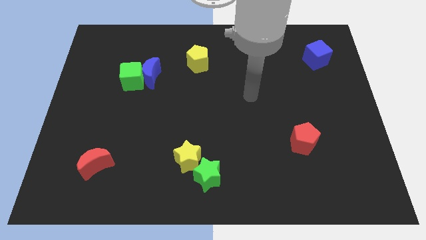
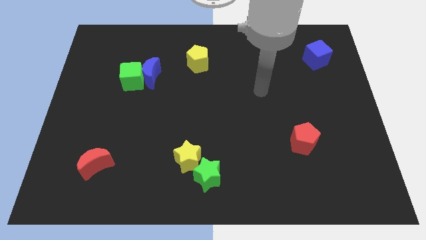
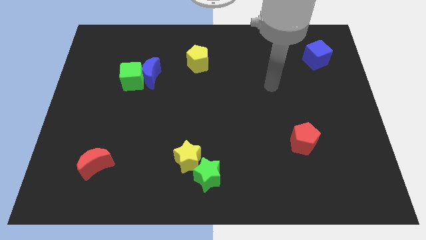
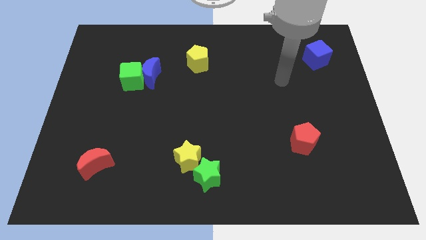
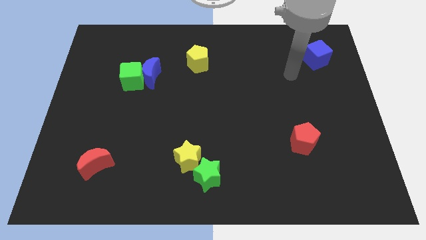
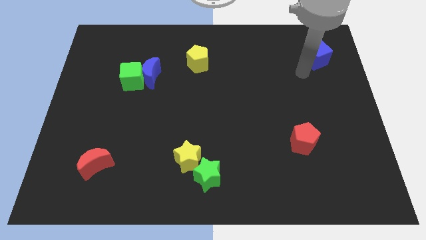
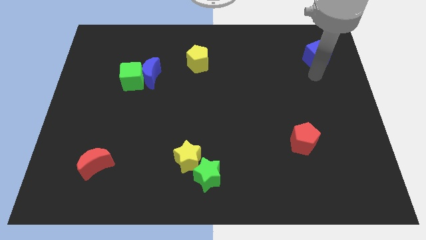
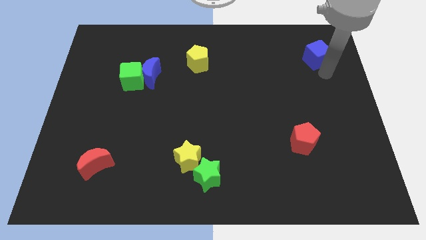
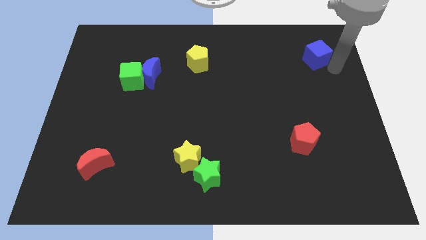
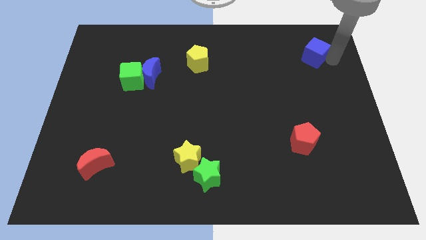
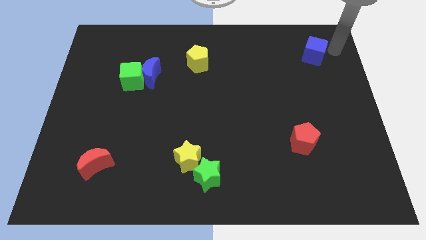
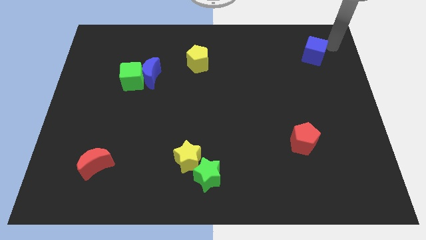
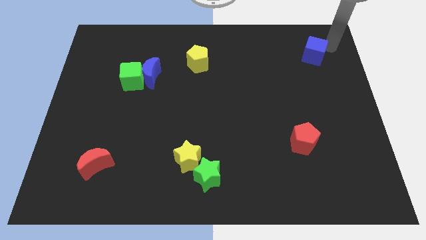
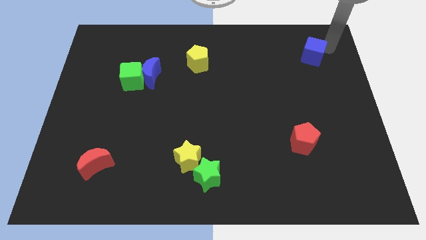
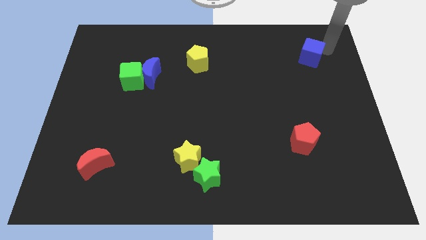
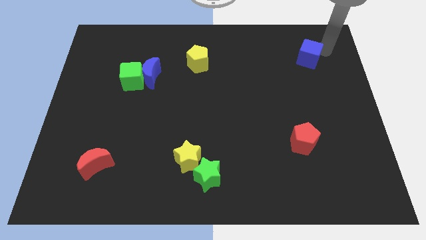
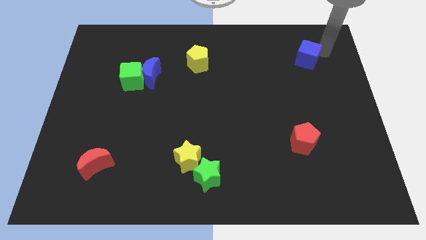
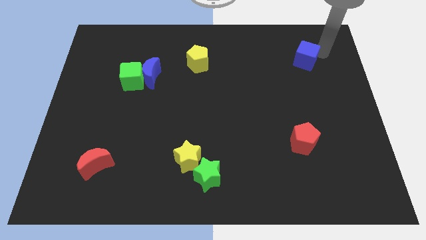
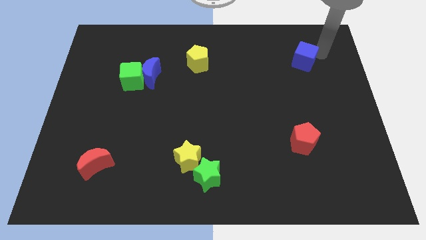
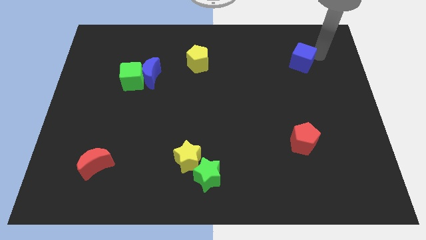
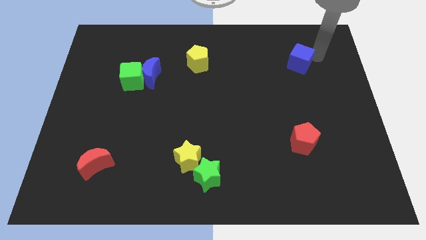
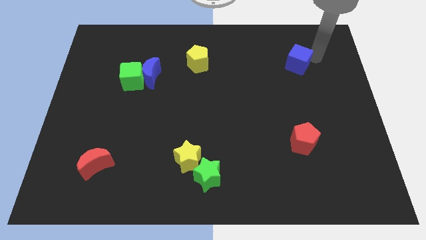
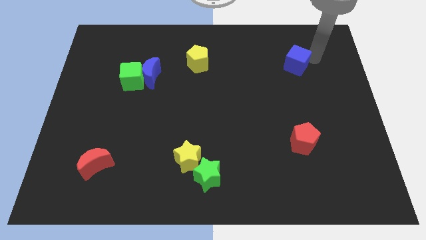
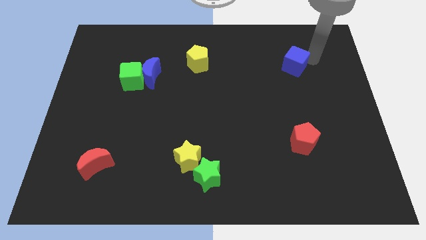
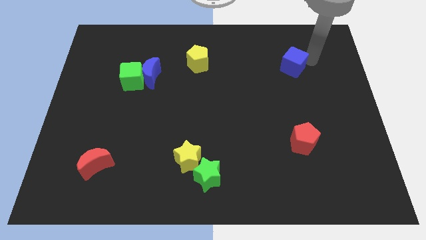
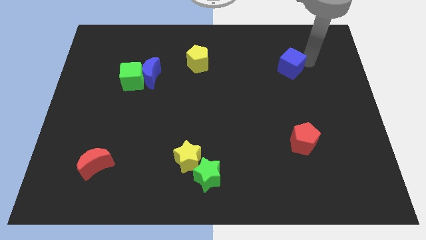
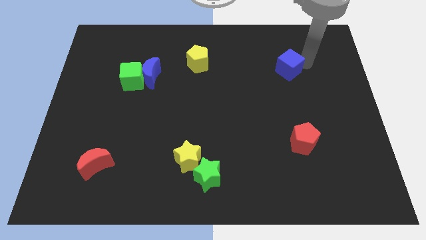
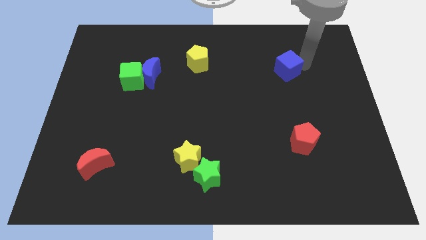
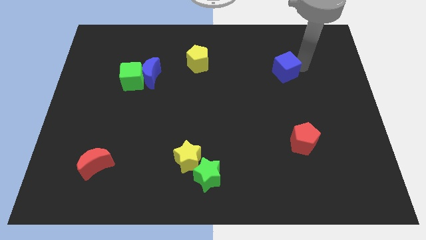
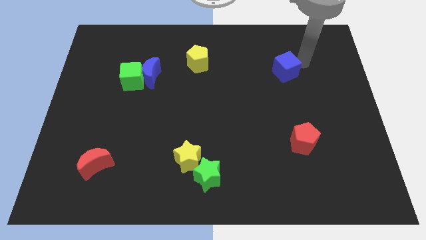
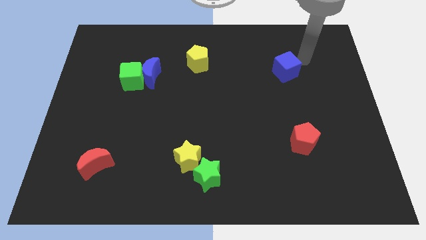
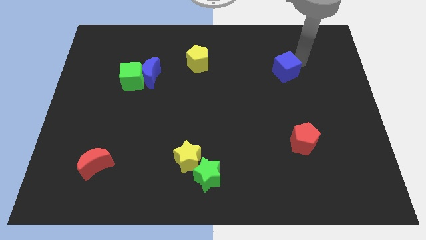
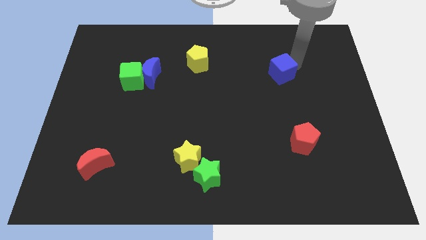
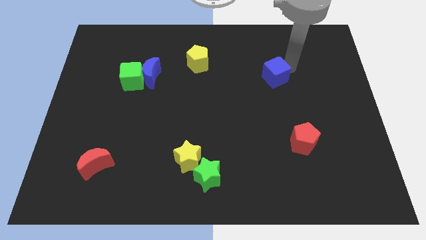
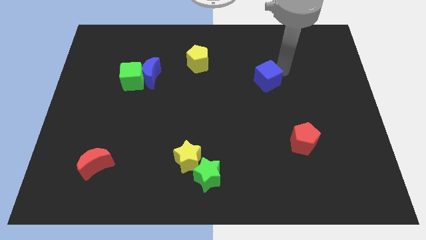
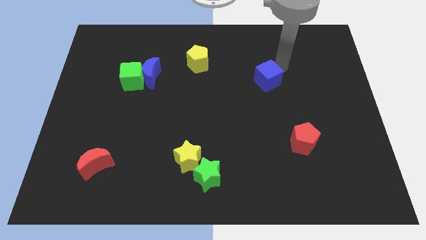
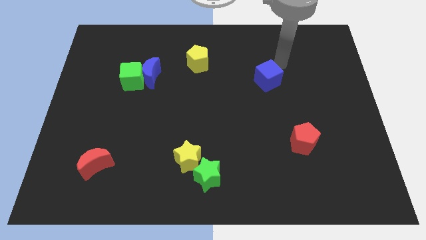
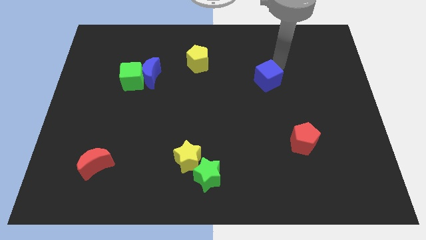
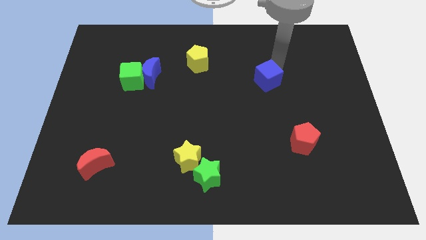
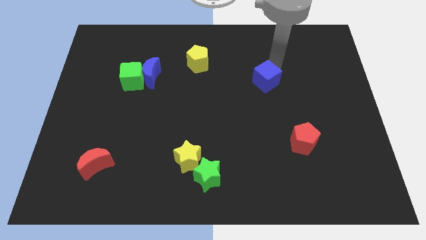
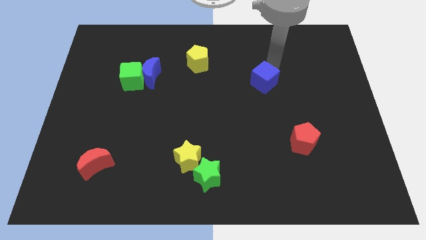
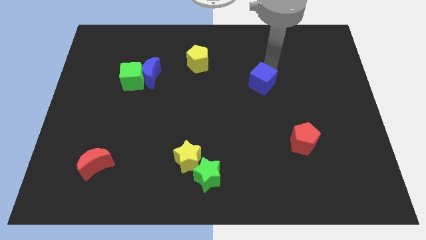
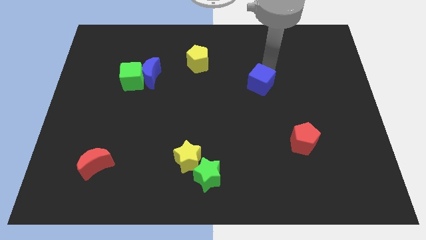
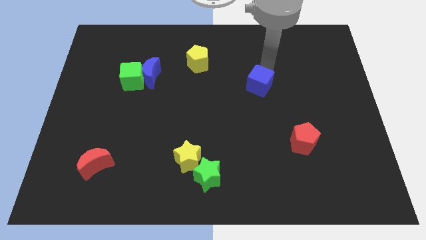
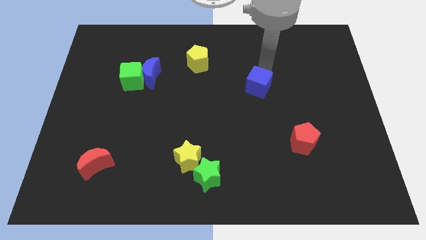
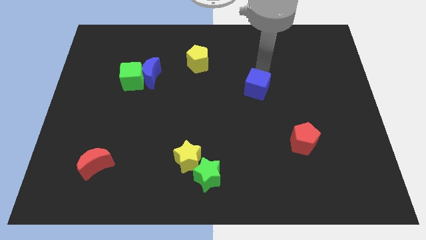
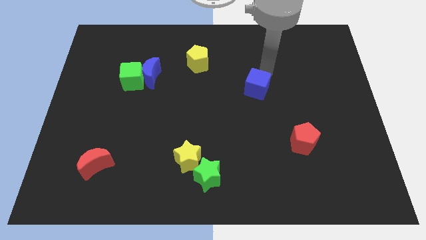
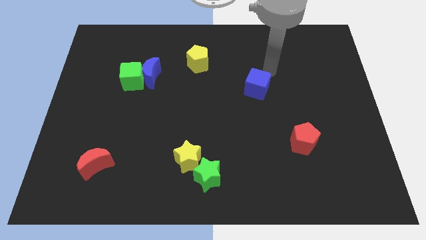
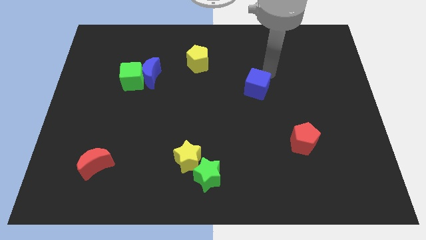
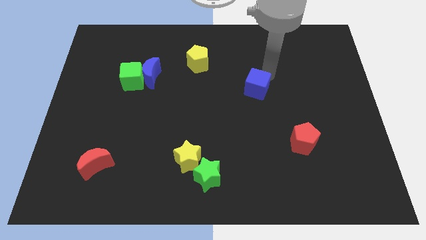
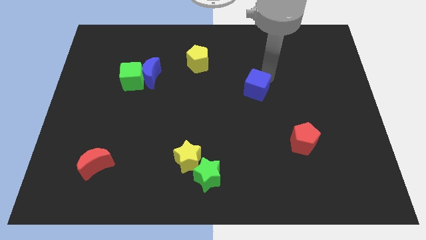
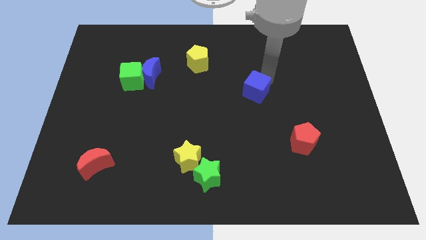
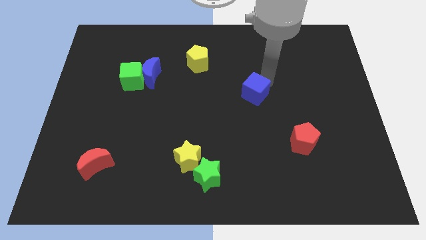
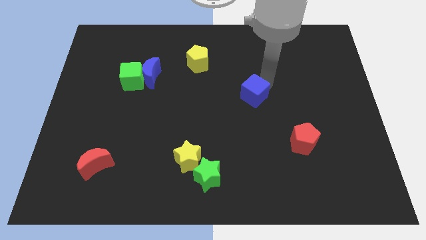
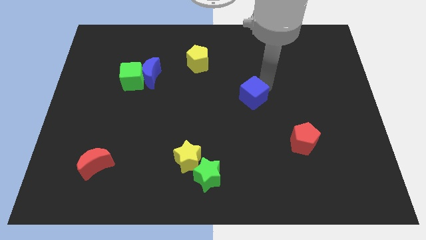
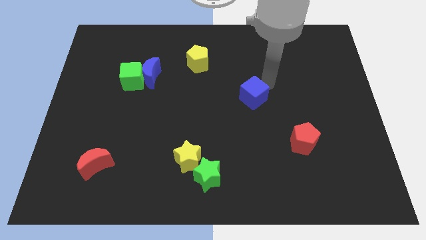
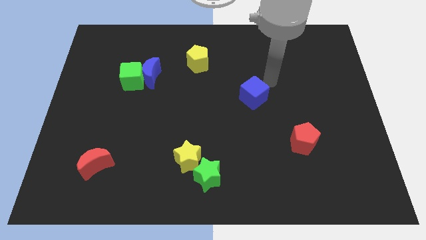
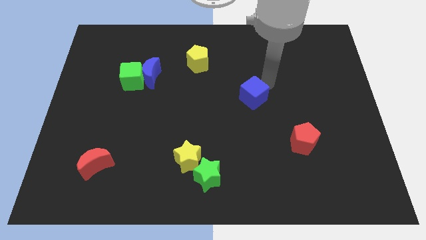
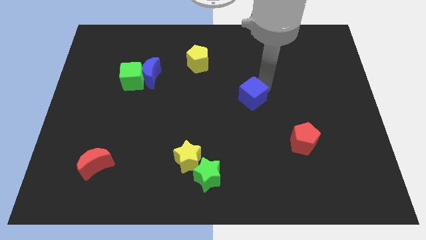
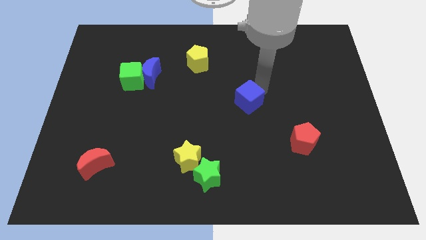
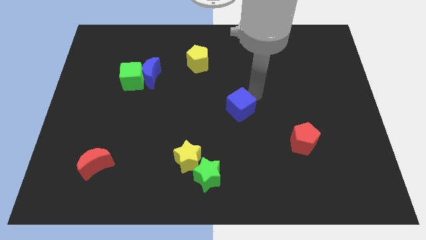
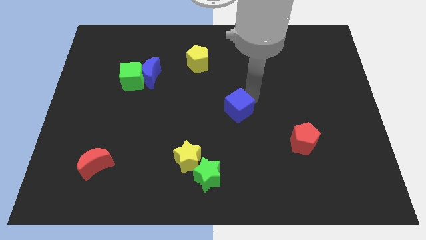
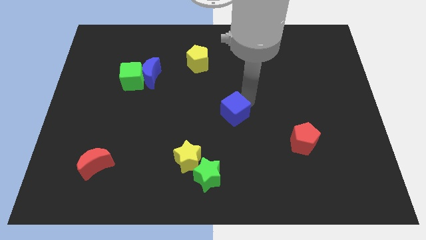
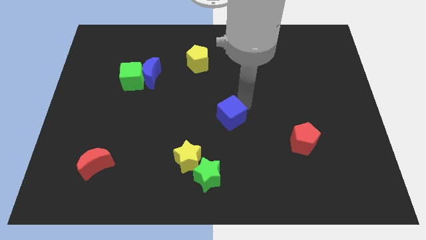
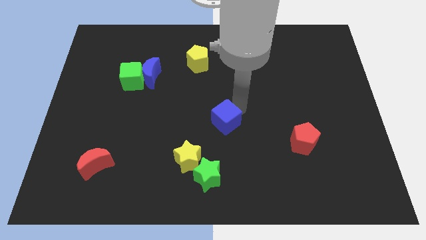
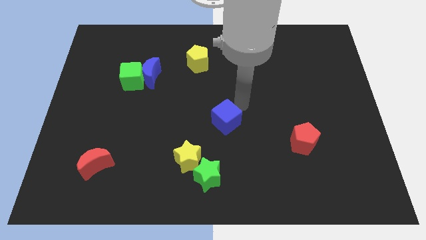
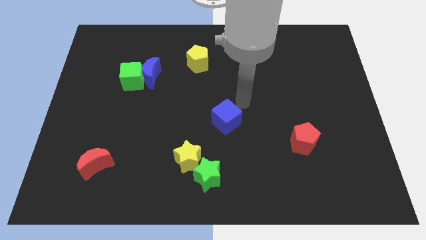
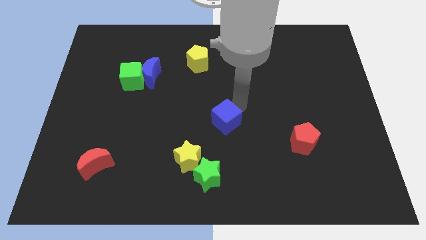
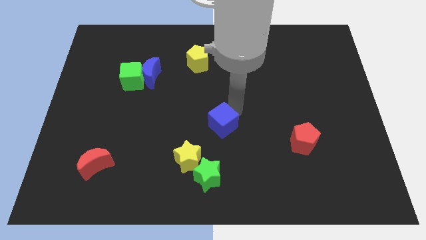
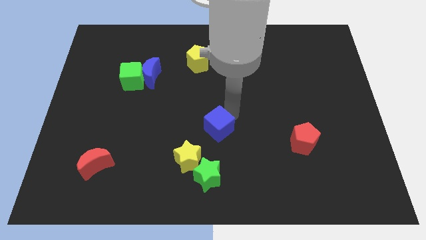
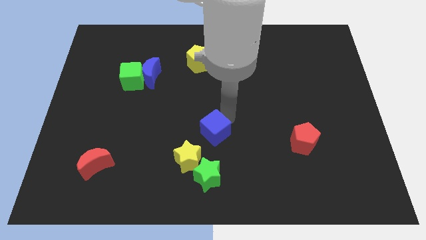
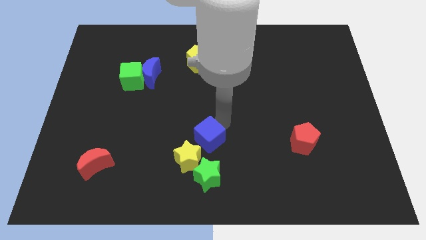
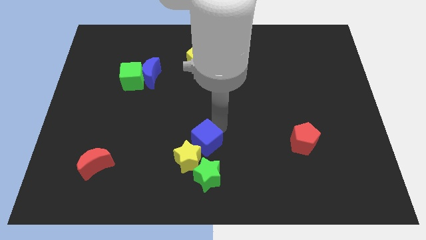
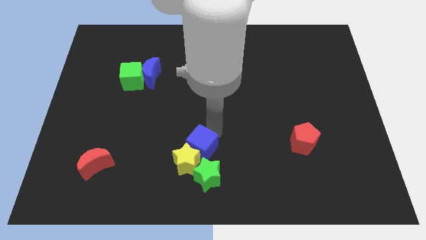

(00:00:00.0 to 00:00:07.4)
put the blue cube close to the yellow star
